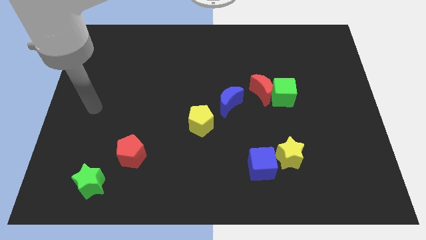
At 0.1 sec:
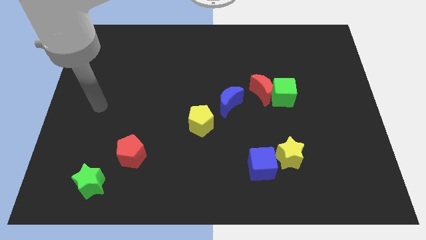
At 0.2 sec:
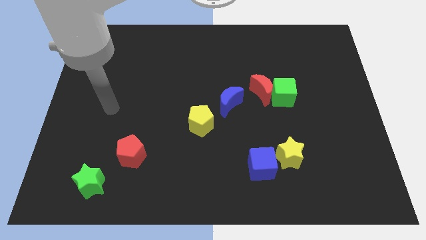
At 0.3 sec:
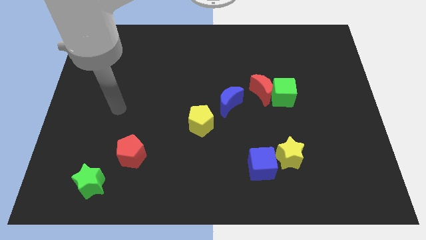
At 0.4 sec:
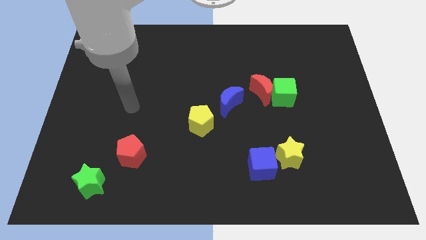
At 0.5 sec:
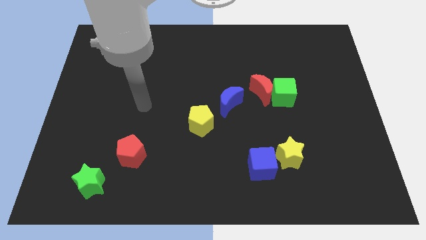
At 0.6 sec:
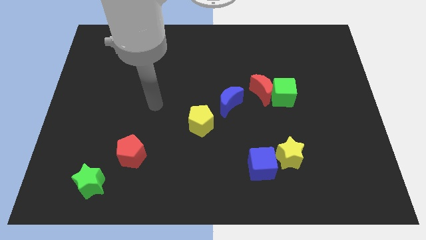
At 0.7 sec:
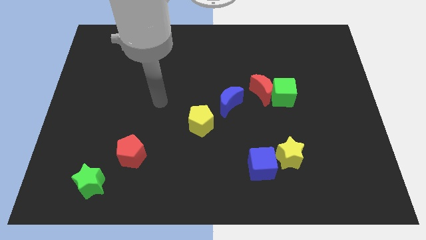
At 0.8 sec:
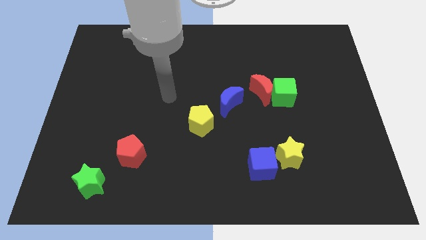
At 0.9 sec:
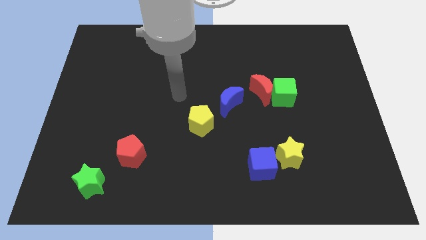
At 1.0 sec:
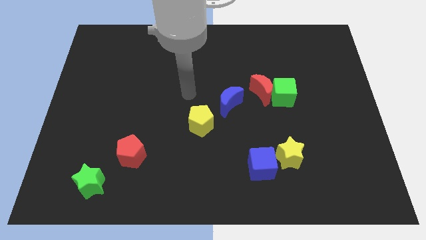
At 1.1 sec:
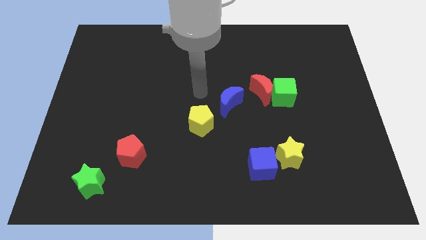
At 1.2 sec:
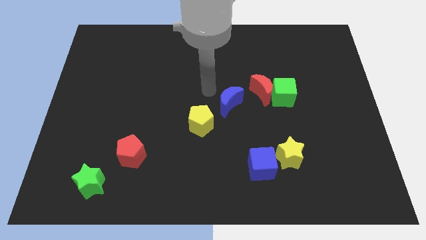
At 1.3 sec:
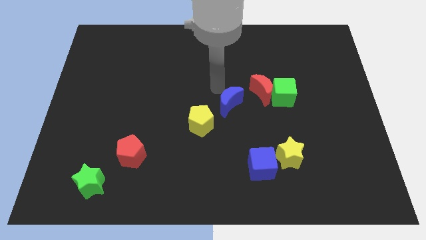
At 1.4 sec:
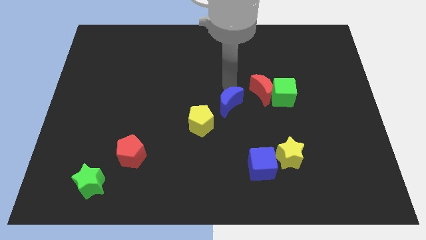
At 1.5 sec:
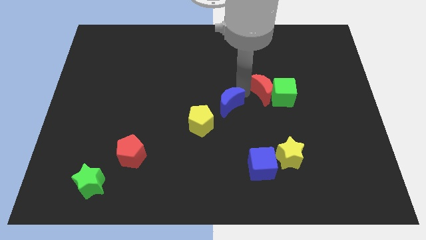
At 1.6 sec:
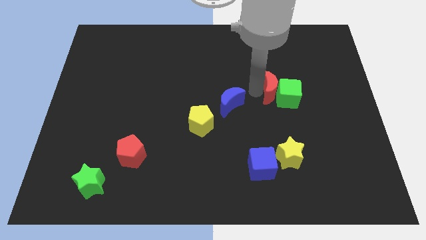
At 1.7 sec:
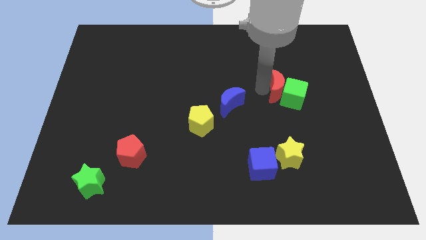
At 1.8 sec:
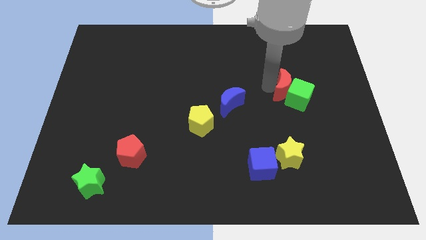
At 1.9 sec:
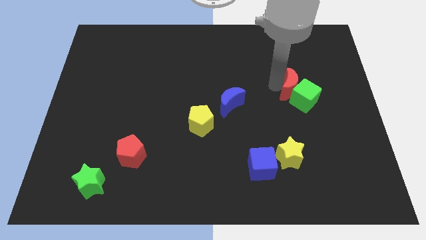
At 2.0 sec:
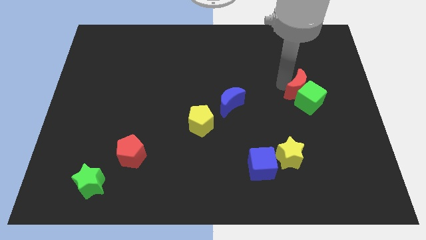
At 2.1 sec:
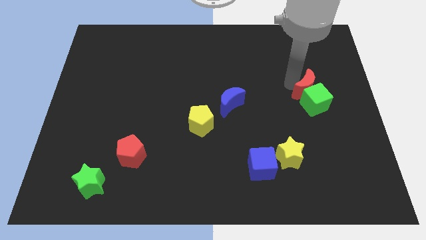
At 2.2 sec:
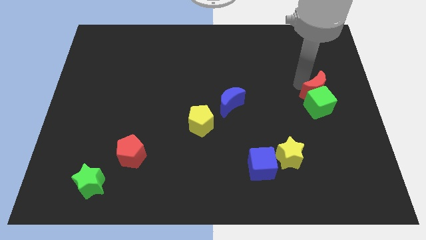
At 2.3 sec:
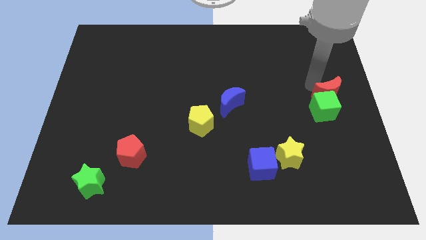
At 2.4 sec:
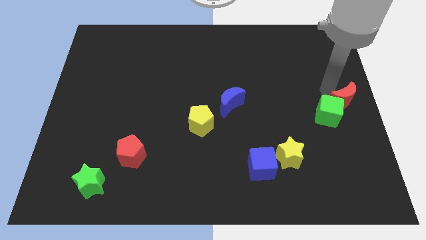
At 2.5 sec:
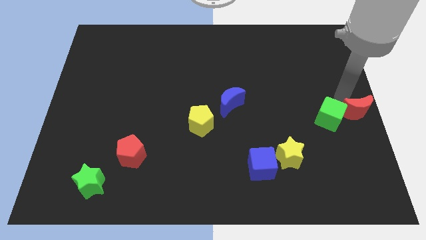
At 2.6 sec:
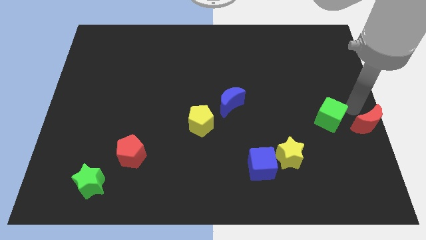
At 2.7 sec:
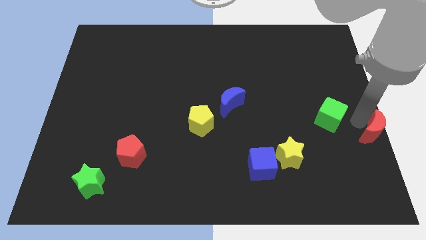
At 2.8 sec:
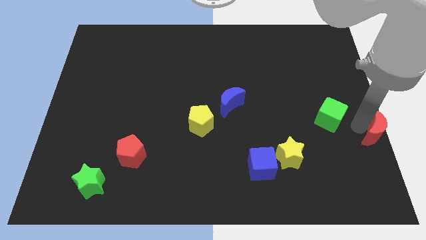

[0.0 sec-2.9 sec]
separate the green cube from the red moon

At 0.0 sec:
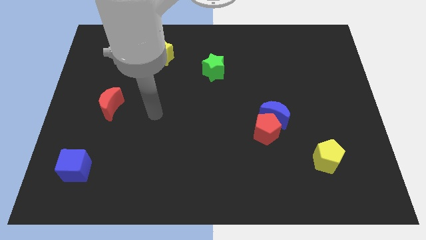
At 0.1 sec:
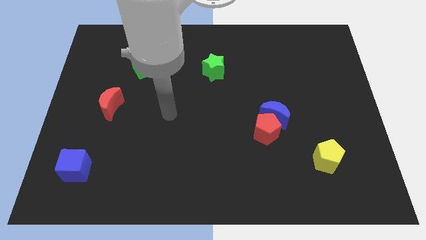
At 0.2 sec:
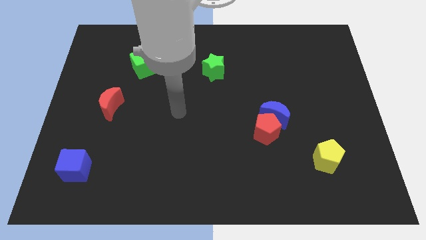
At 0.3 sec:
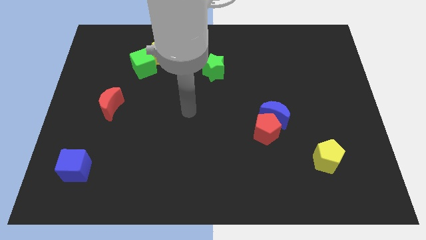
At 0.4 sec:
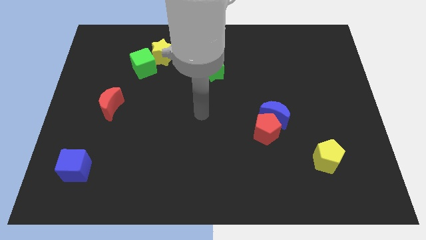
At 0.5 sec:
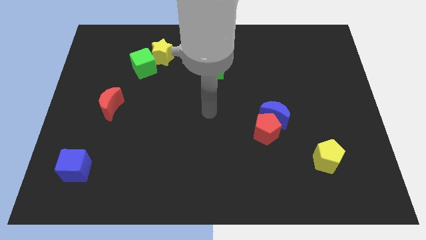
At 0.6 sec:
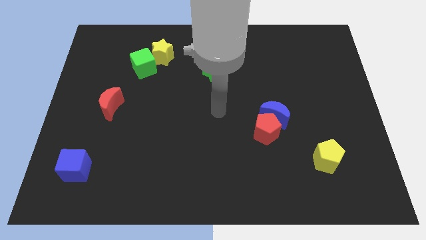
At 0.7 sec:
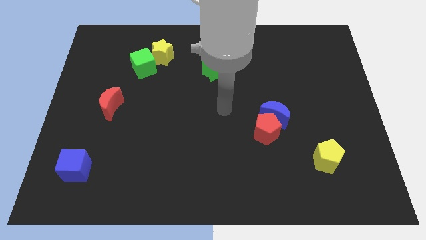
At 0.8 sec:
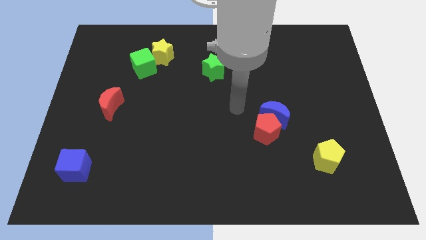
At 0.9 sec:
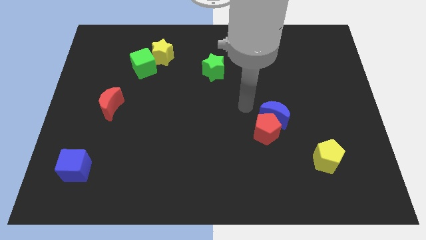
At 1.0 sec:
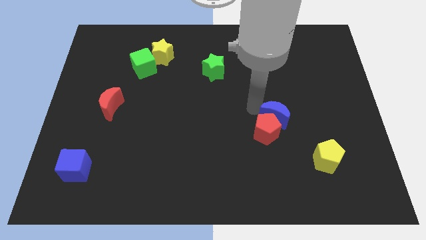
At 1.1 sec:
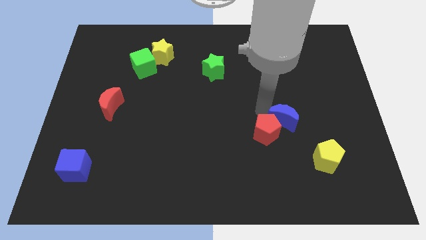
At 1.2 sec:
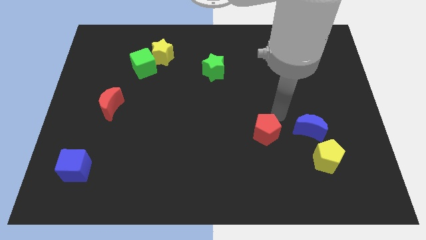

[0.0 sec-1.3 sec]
separate the red pentagon from the blue moon

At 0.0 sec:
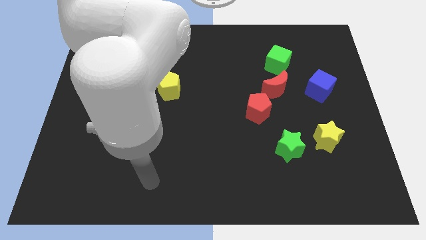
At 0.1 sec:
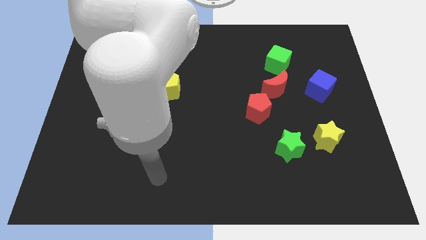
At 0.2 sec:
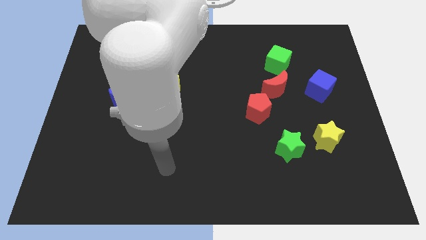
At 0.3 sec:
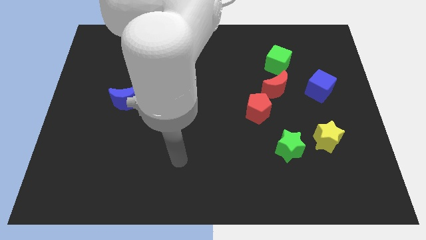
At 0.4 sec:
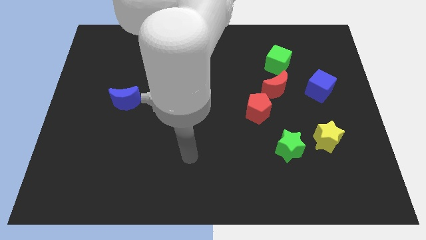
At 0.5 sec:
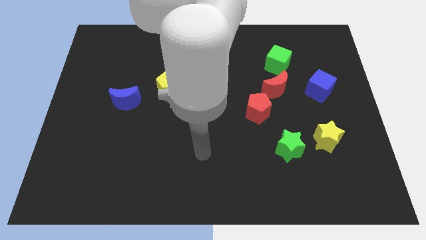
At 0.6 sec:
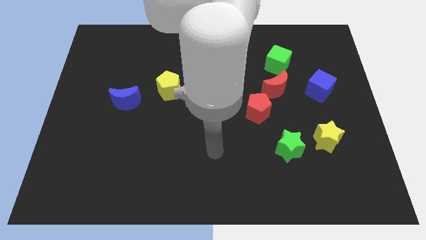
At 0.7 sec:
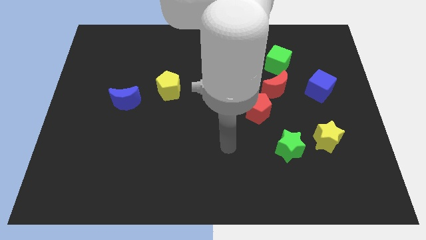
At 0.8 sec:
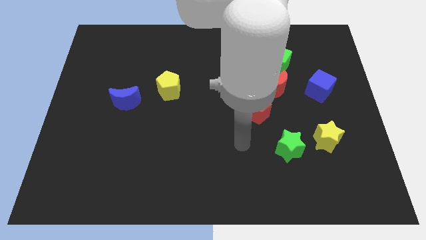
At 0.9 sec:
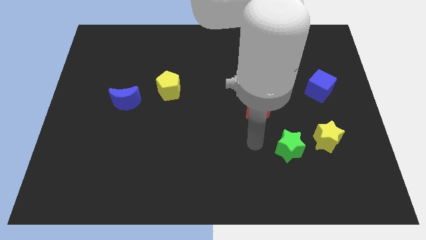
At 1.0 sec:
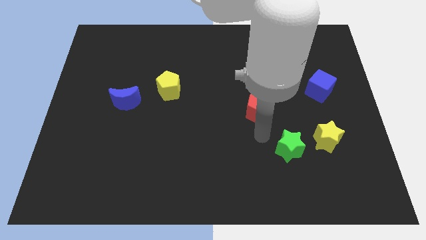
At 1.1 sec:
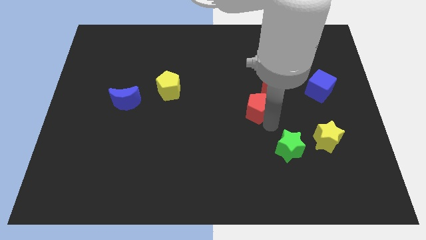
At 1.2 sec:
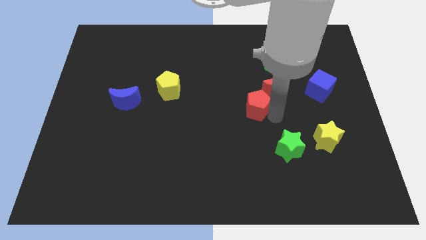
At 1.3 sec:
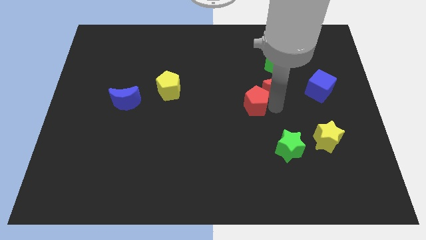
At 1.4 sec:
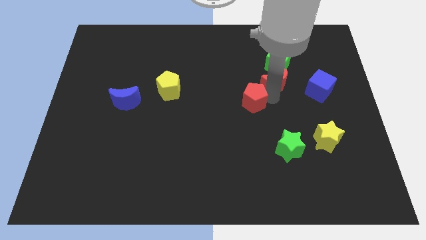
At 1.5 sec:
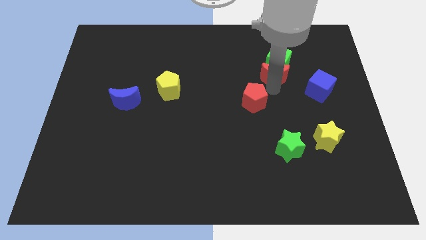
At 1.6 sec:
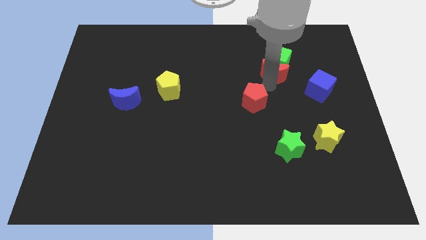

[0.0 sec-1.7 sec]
separate the red pentagon from the red moon

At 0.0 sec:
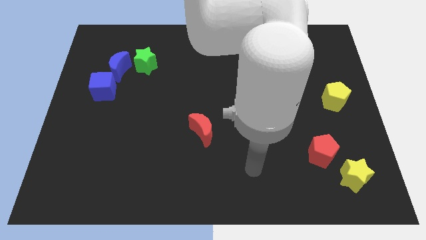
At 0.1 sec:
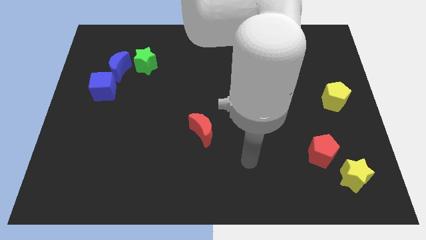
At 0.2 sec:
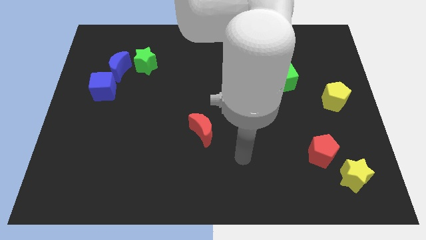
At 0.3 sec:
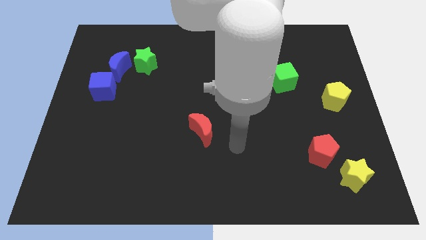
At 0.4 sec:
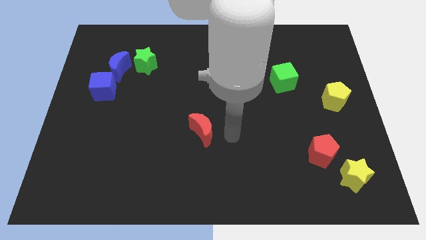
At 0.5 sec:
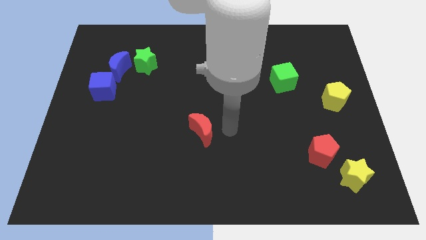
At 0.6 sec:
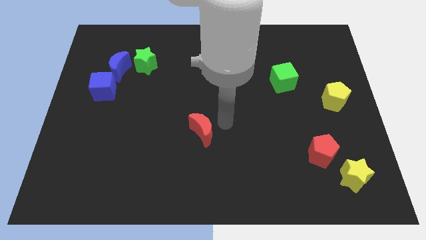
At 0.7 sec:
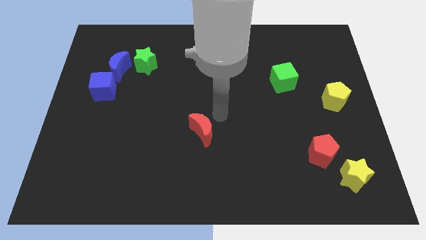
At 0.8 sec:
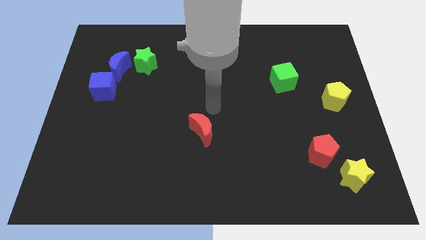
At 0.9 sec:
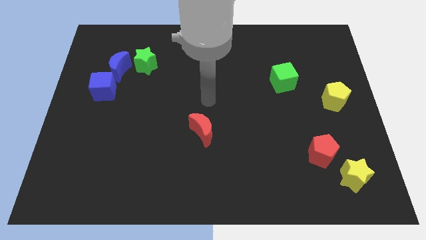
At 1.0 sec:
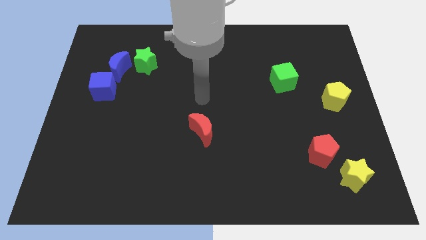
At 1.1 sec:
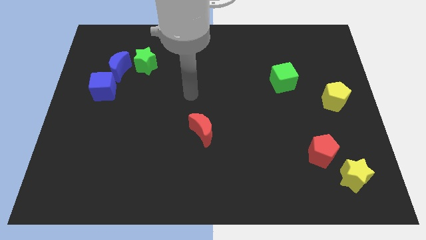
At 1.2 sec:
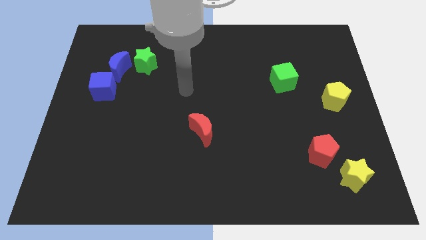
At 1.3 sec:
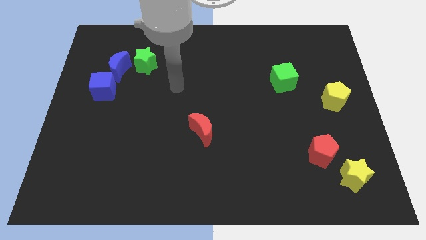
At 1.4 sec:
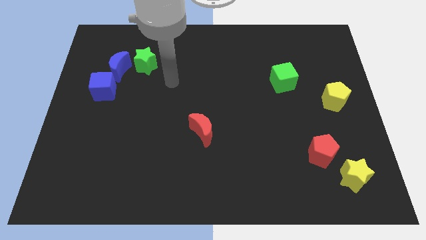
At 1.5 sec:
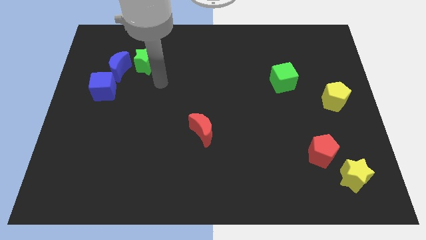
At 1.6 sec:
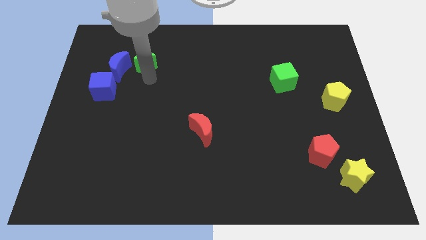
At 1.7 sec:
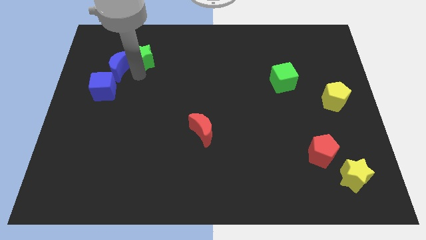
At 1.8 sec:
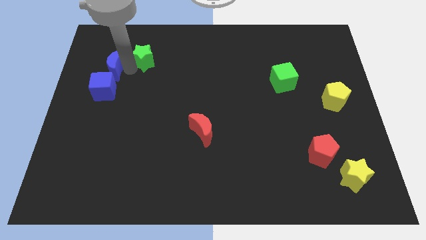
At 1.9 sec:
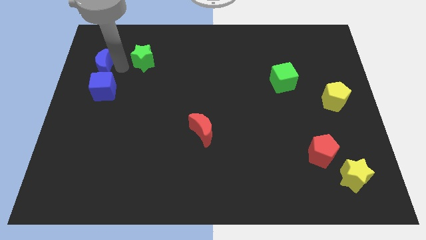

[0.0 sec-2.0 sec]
move the green star away from the blue moon

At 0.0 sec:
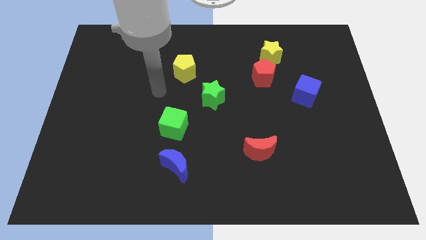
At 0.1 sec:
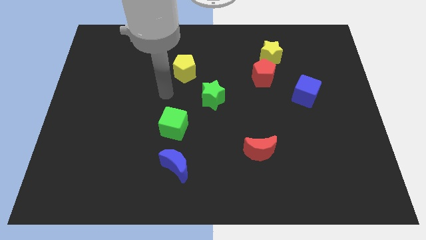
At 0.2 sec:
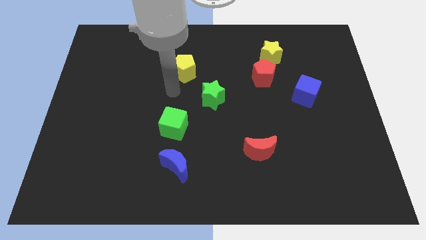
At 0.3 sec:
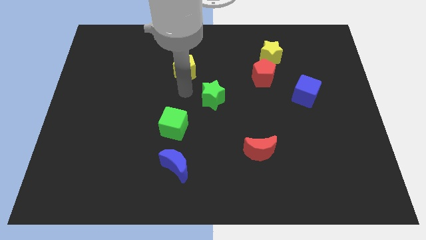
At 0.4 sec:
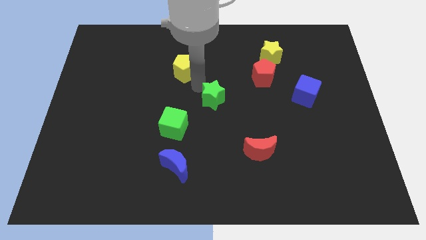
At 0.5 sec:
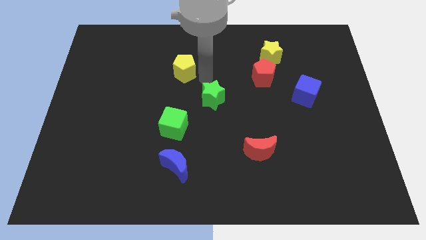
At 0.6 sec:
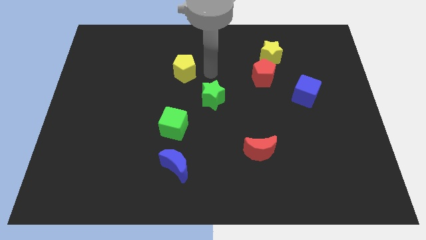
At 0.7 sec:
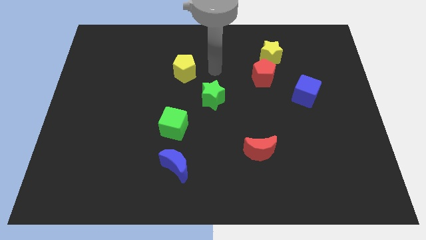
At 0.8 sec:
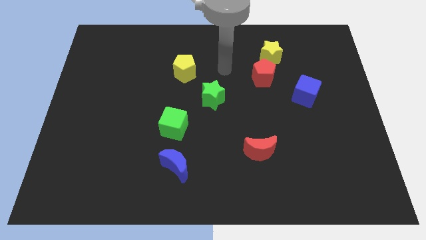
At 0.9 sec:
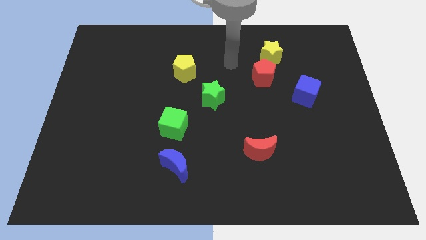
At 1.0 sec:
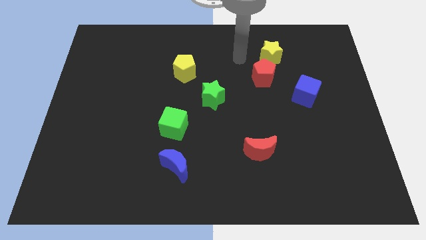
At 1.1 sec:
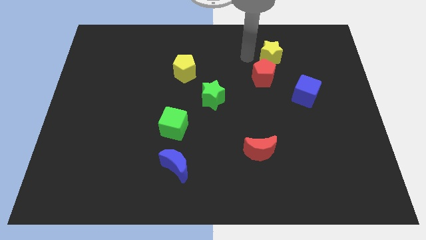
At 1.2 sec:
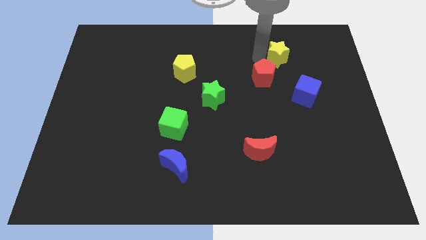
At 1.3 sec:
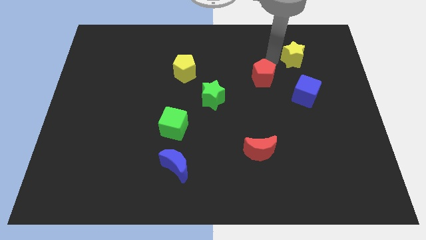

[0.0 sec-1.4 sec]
pull the red pentagon apart from the yellow star

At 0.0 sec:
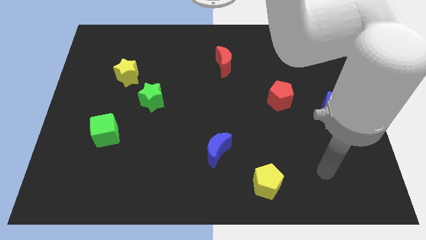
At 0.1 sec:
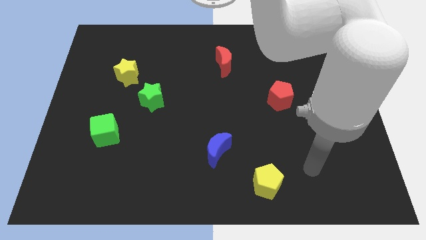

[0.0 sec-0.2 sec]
move the green star away from the yellow star
